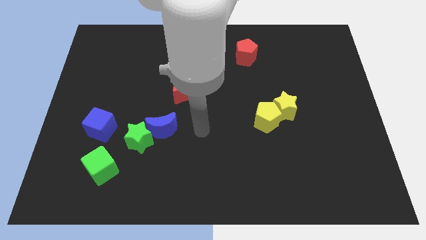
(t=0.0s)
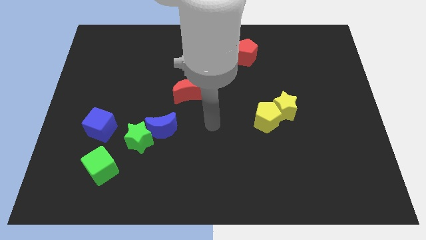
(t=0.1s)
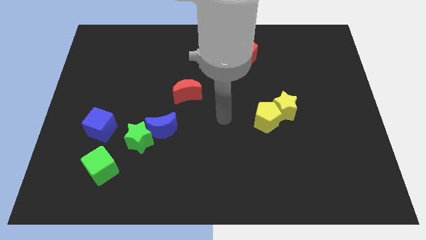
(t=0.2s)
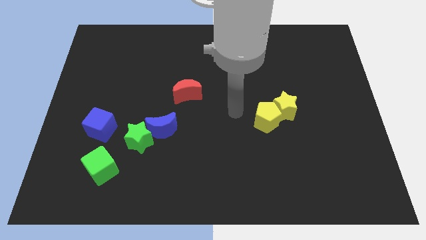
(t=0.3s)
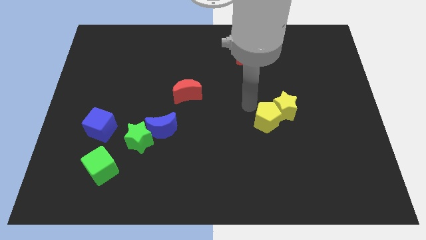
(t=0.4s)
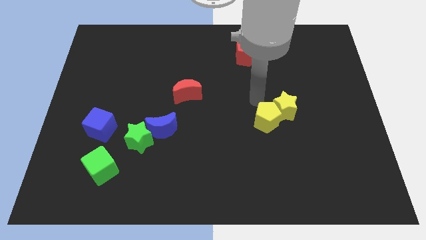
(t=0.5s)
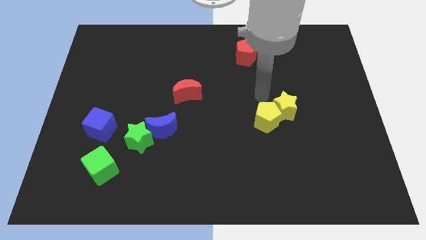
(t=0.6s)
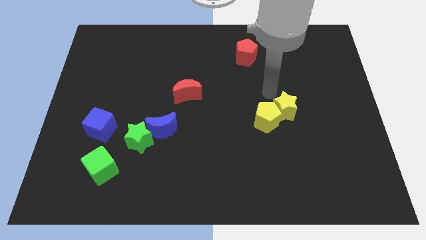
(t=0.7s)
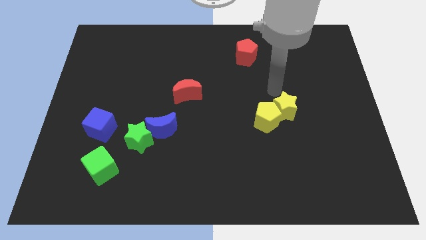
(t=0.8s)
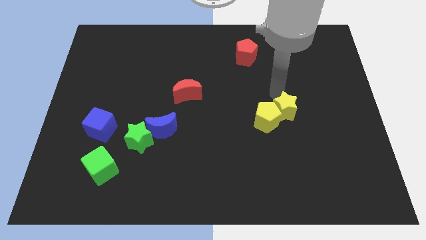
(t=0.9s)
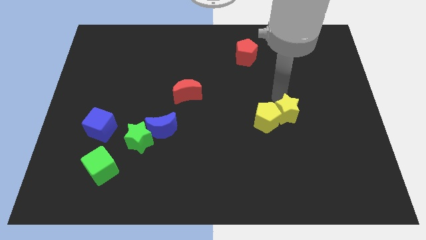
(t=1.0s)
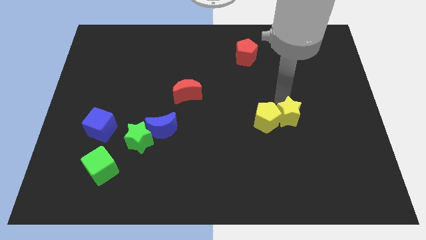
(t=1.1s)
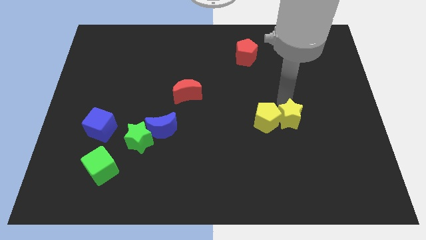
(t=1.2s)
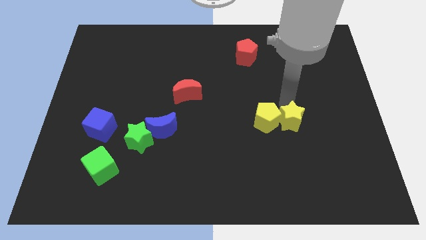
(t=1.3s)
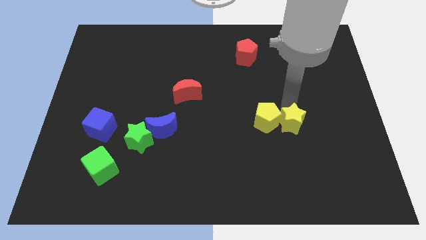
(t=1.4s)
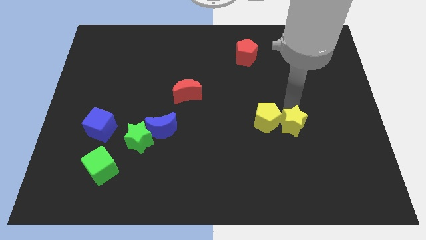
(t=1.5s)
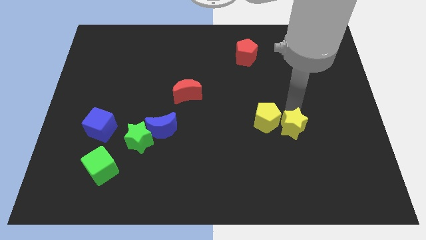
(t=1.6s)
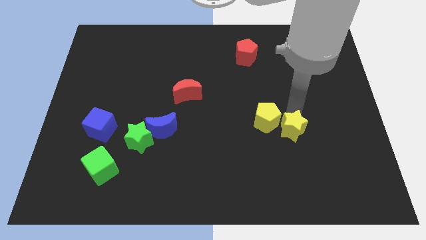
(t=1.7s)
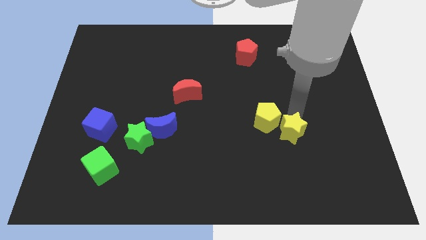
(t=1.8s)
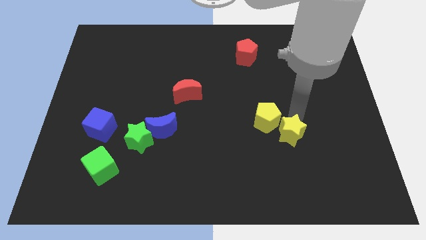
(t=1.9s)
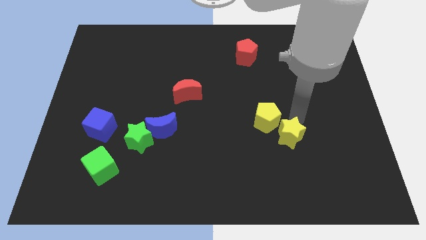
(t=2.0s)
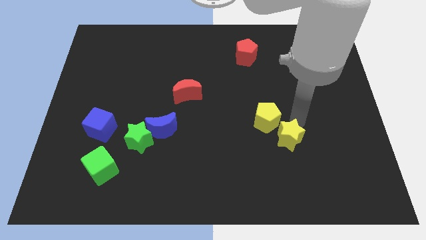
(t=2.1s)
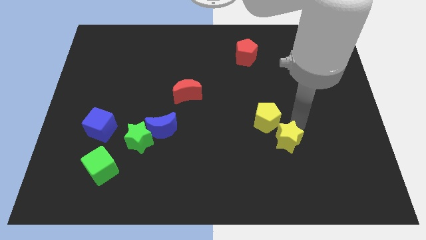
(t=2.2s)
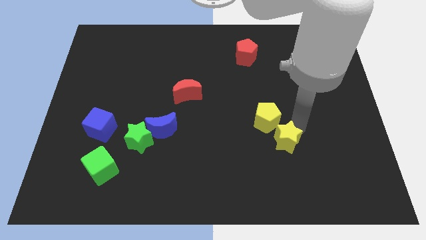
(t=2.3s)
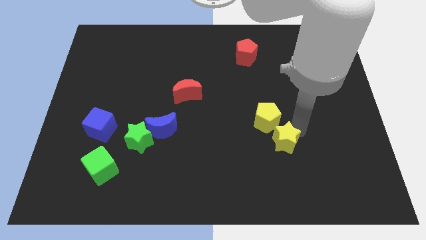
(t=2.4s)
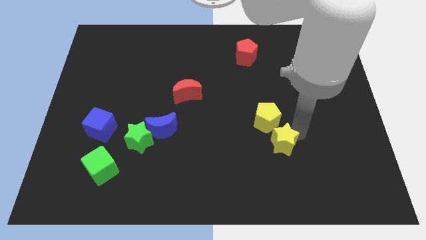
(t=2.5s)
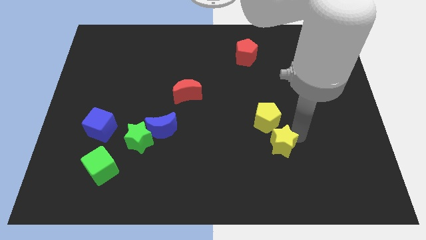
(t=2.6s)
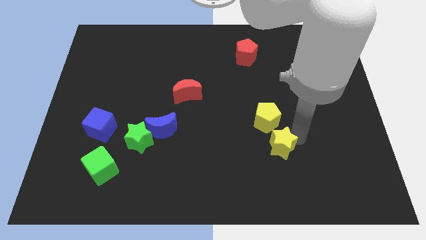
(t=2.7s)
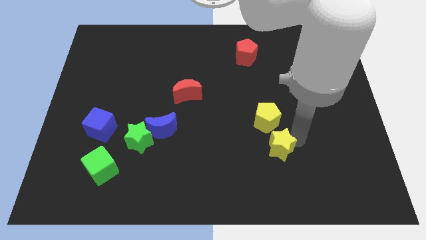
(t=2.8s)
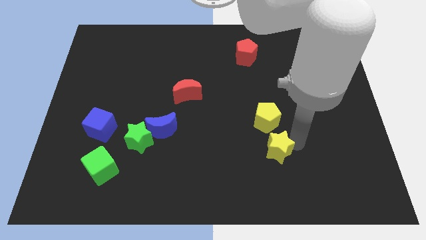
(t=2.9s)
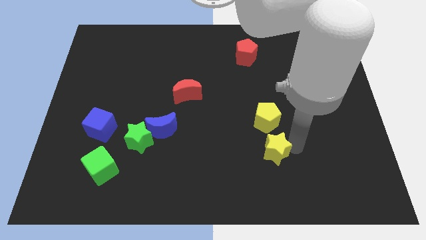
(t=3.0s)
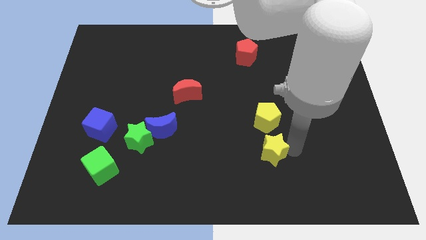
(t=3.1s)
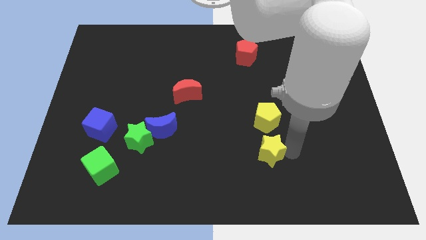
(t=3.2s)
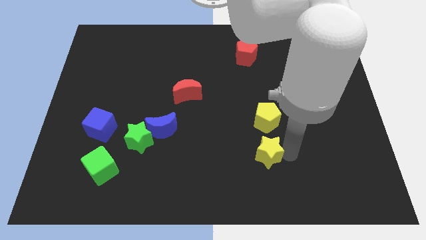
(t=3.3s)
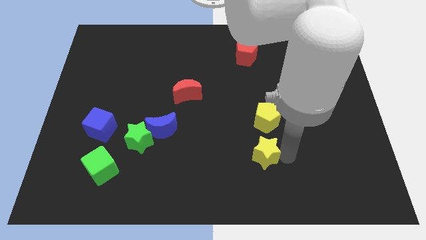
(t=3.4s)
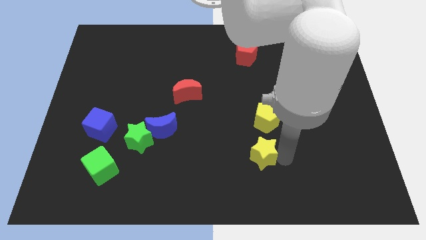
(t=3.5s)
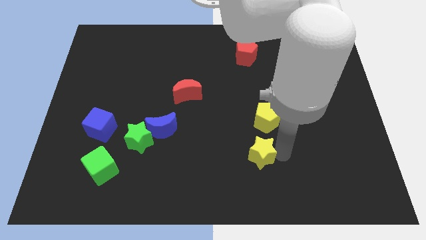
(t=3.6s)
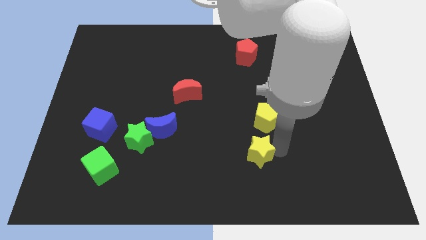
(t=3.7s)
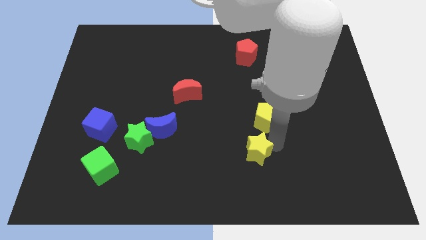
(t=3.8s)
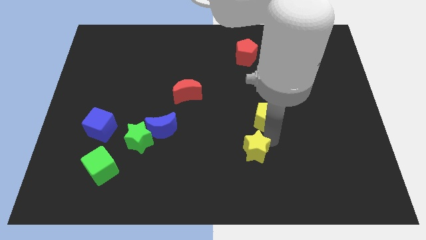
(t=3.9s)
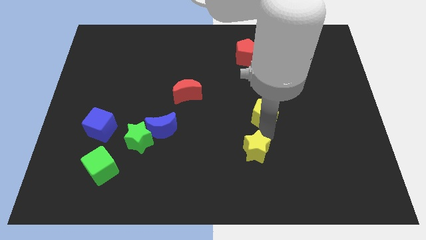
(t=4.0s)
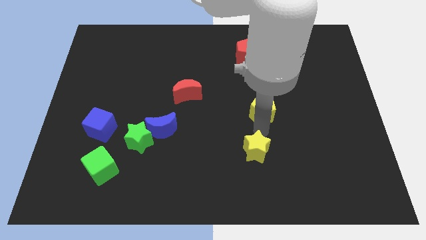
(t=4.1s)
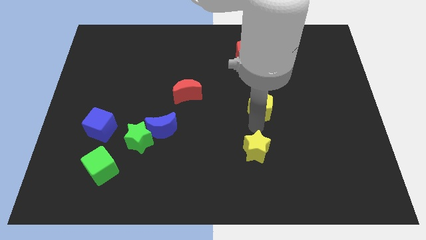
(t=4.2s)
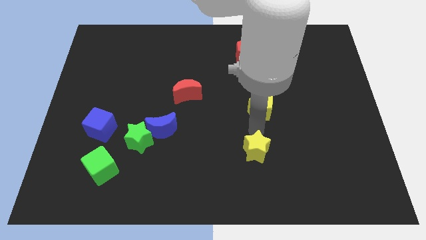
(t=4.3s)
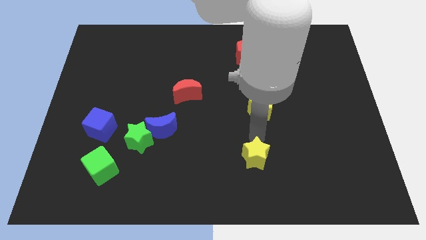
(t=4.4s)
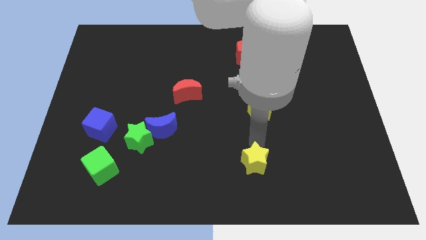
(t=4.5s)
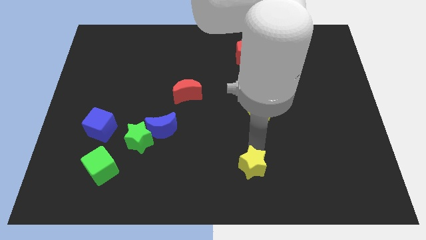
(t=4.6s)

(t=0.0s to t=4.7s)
slide the yellow star to the bottom side

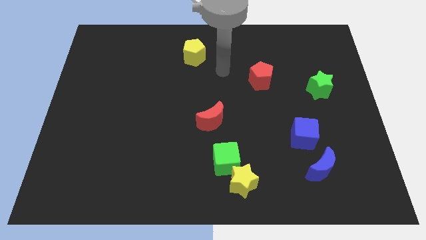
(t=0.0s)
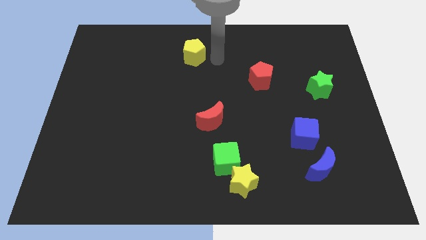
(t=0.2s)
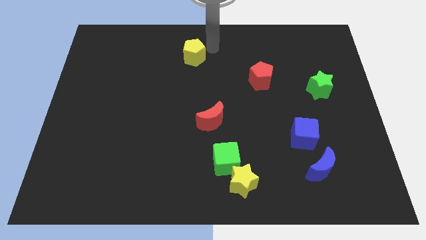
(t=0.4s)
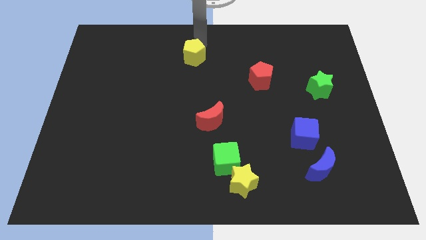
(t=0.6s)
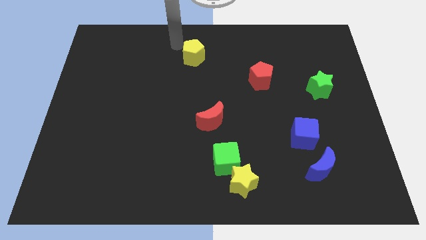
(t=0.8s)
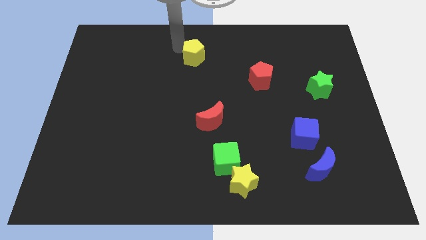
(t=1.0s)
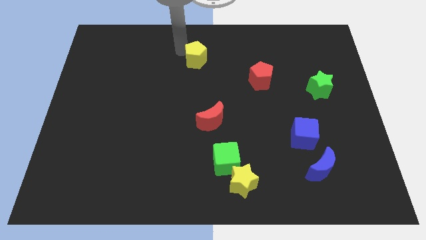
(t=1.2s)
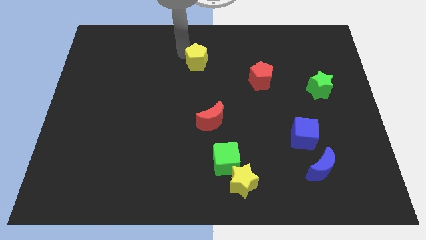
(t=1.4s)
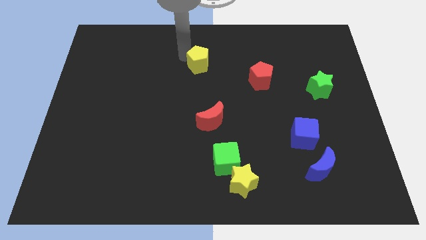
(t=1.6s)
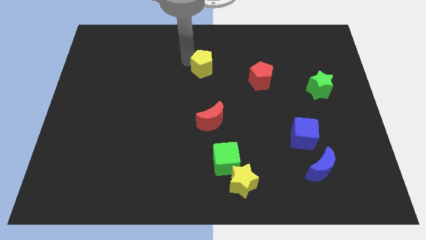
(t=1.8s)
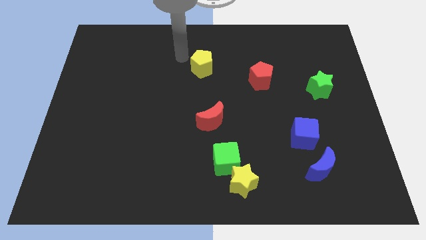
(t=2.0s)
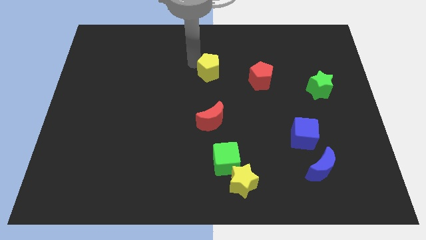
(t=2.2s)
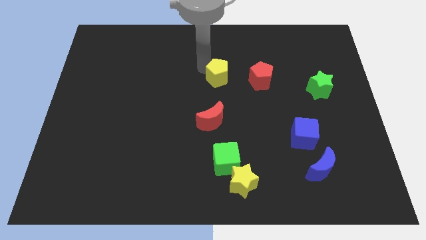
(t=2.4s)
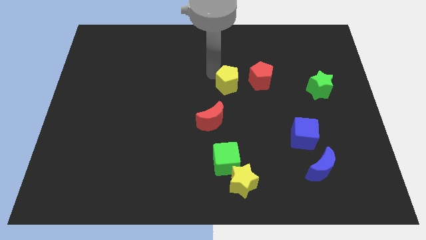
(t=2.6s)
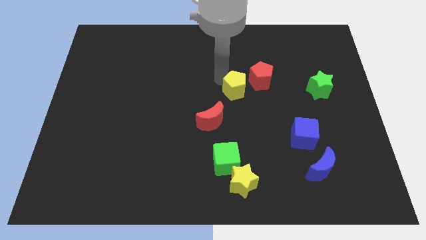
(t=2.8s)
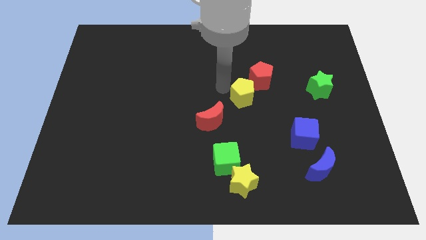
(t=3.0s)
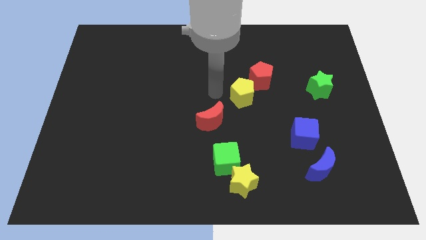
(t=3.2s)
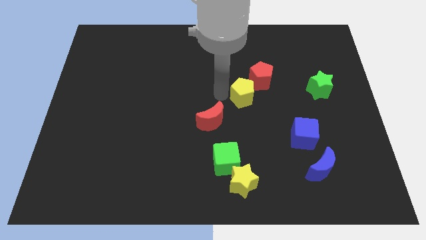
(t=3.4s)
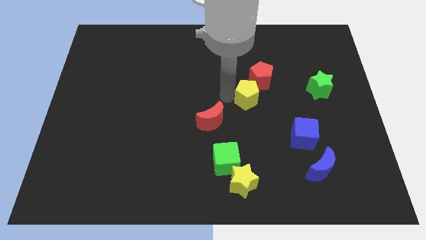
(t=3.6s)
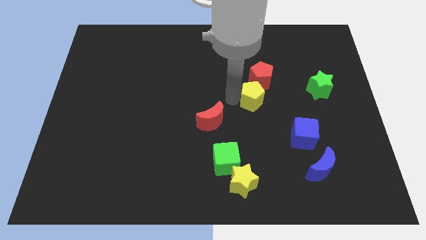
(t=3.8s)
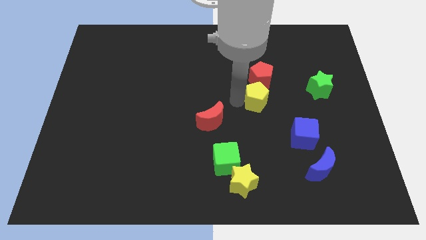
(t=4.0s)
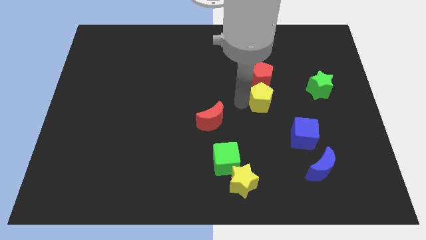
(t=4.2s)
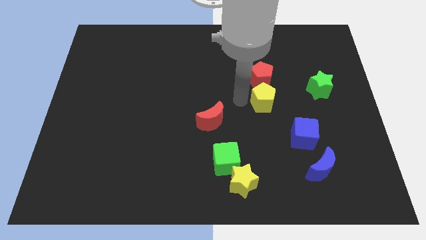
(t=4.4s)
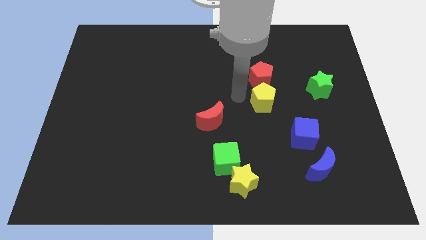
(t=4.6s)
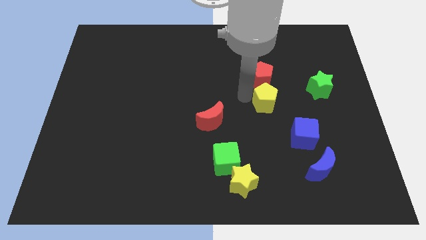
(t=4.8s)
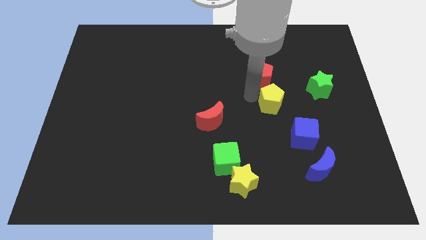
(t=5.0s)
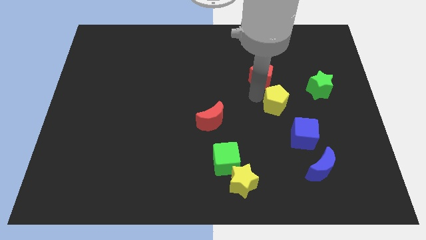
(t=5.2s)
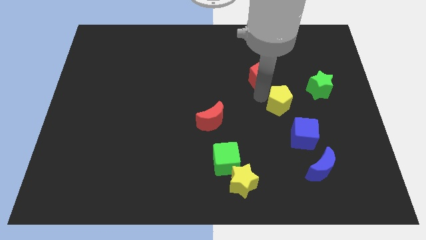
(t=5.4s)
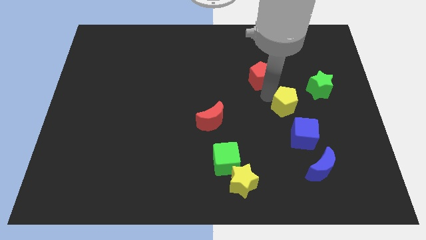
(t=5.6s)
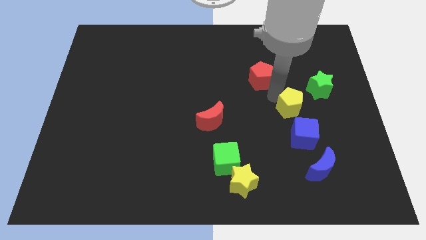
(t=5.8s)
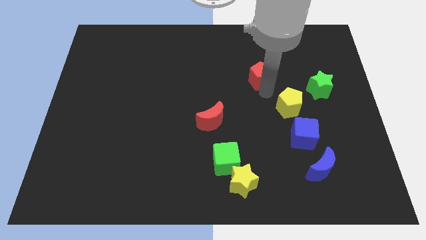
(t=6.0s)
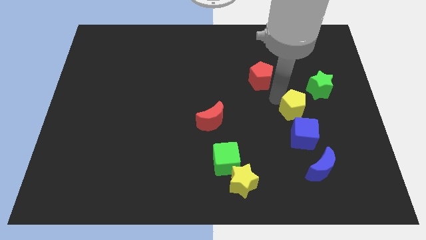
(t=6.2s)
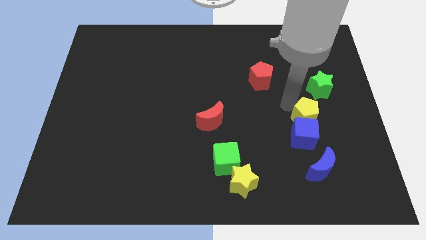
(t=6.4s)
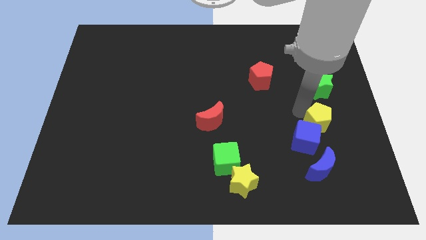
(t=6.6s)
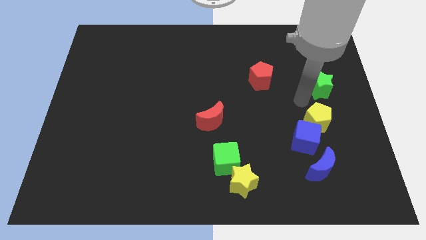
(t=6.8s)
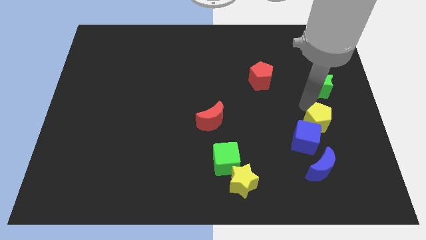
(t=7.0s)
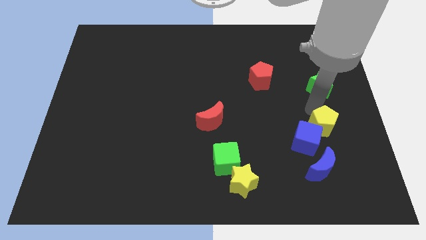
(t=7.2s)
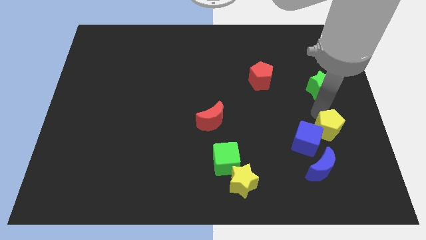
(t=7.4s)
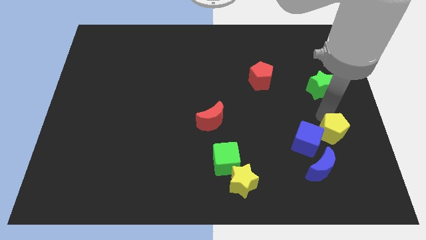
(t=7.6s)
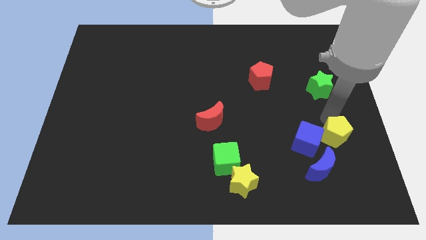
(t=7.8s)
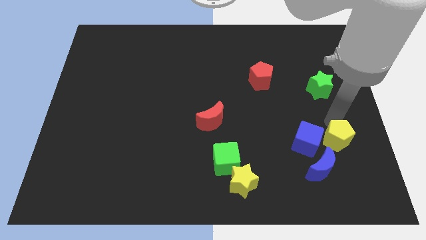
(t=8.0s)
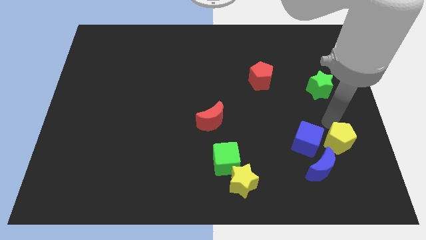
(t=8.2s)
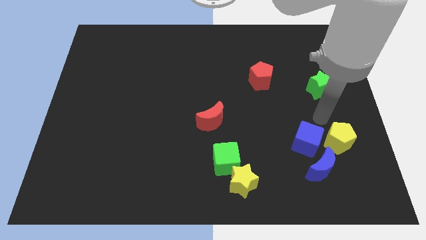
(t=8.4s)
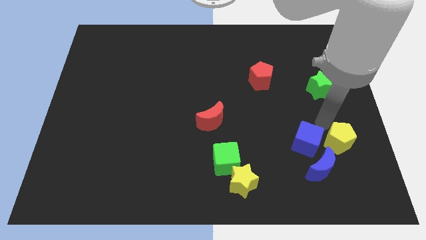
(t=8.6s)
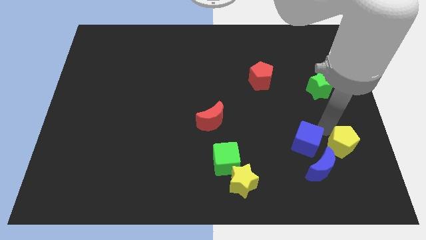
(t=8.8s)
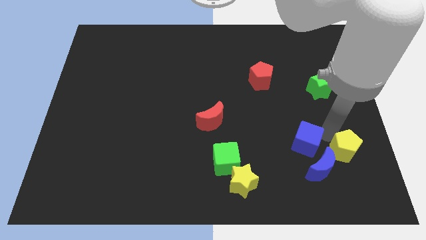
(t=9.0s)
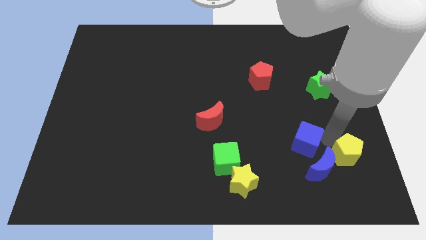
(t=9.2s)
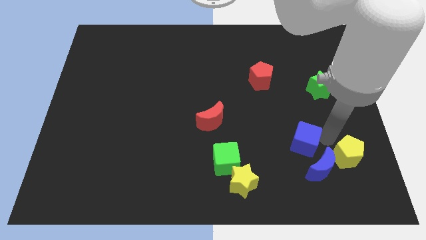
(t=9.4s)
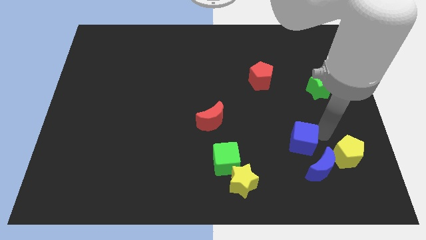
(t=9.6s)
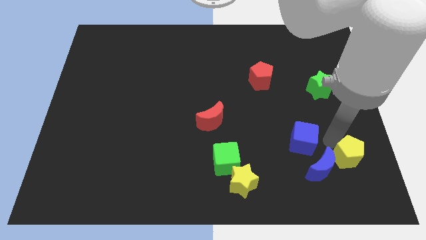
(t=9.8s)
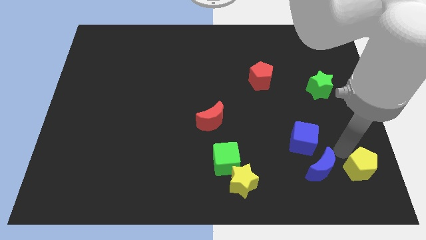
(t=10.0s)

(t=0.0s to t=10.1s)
move the yellow pentagon to the bottom right of the board
